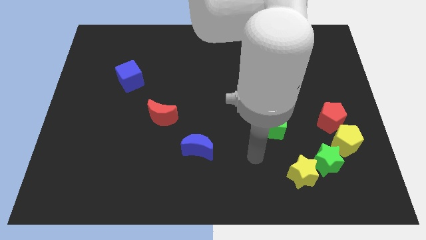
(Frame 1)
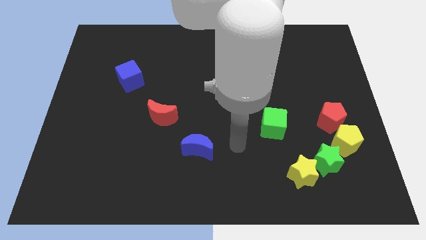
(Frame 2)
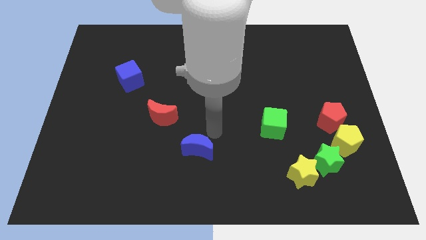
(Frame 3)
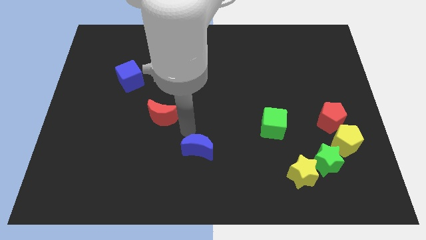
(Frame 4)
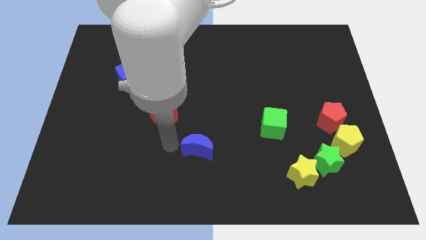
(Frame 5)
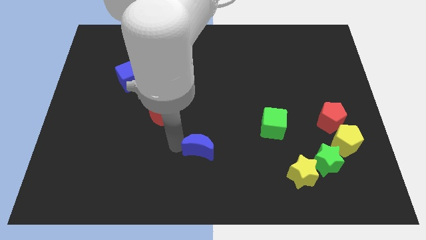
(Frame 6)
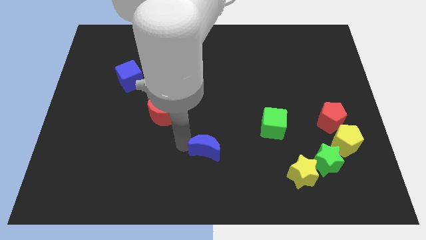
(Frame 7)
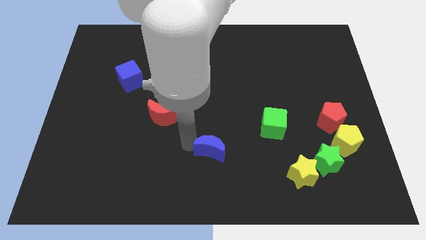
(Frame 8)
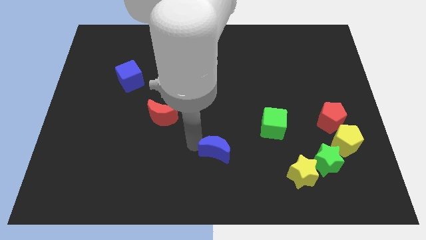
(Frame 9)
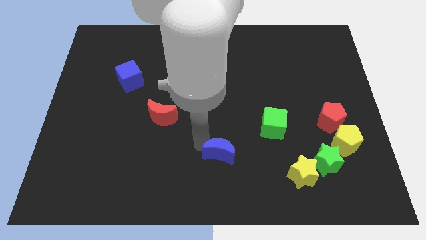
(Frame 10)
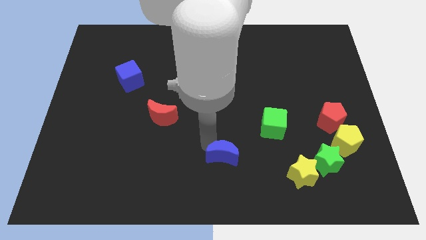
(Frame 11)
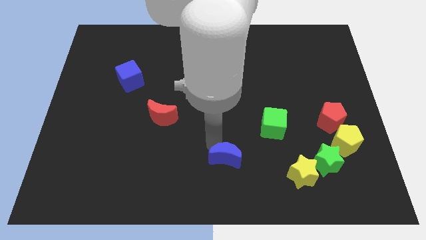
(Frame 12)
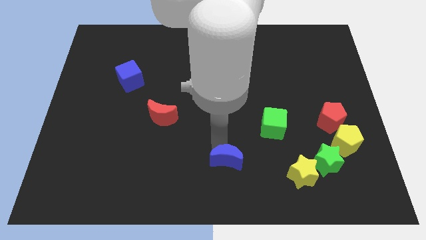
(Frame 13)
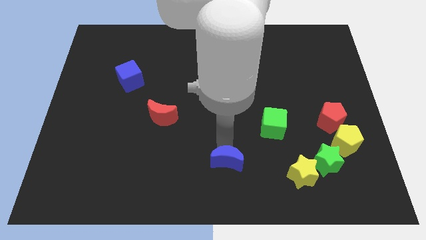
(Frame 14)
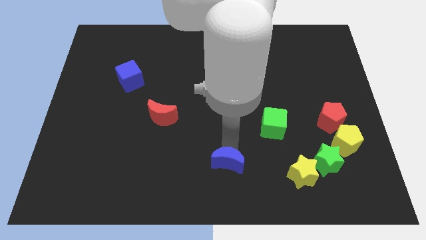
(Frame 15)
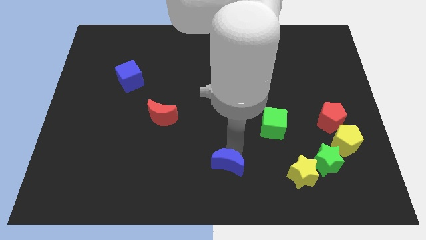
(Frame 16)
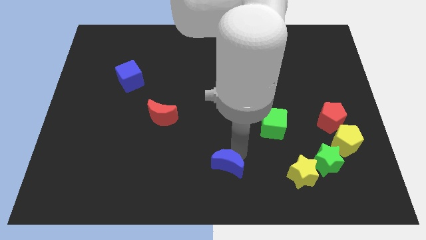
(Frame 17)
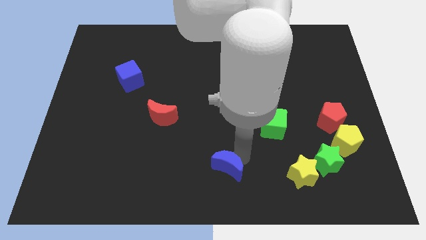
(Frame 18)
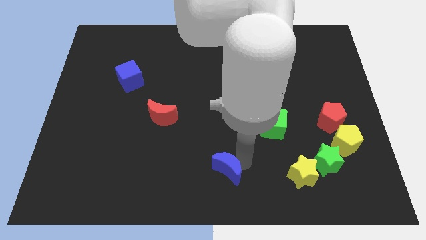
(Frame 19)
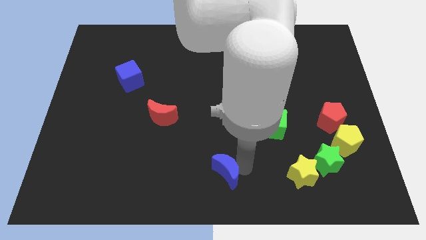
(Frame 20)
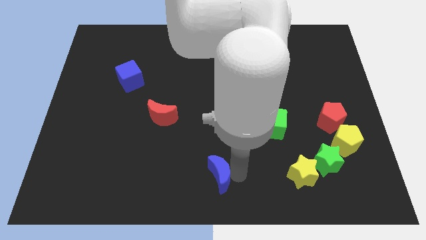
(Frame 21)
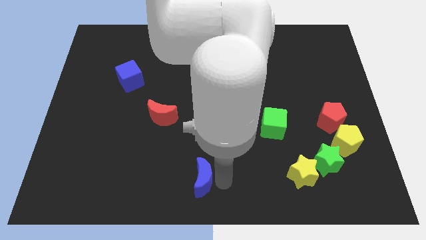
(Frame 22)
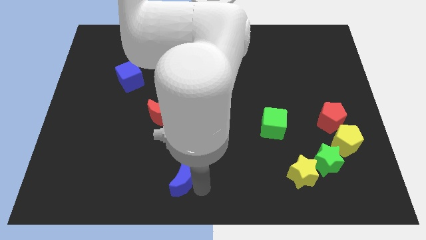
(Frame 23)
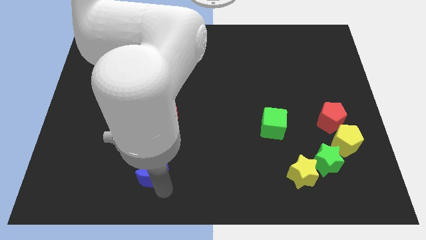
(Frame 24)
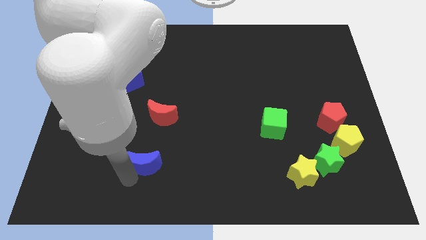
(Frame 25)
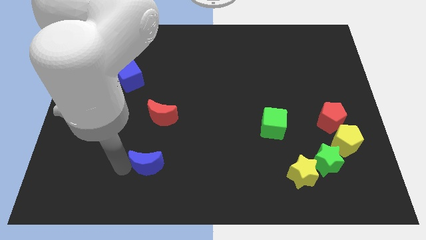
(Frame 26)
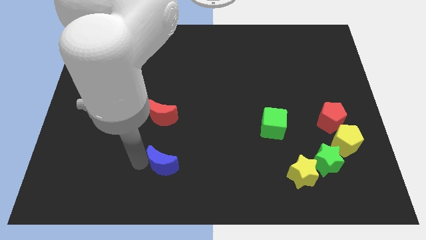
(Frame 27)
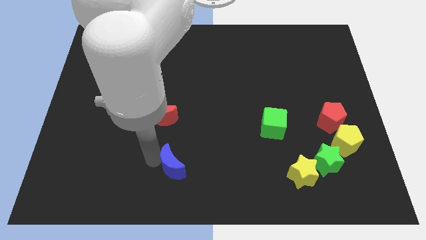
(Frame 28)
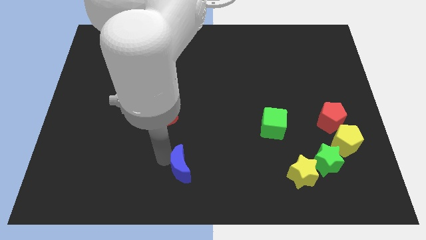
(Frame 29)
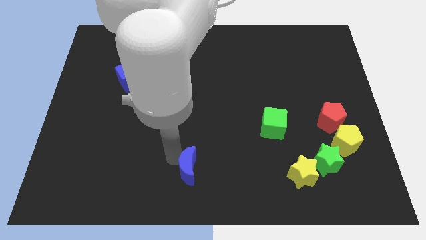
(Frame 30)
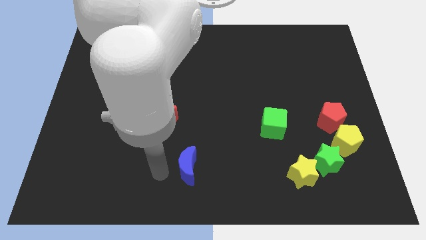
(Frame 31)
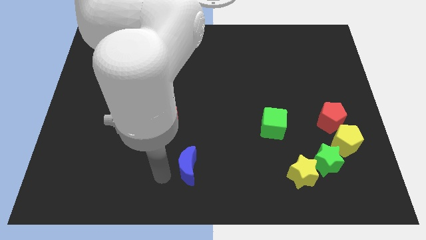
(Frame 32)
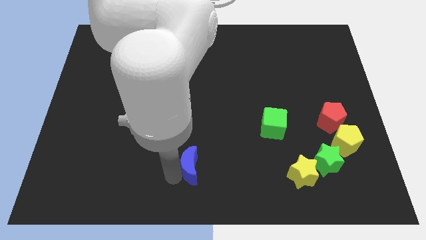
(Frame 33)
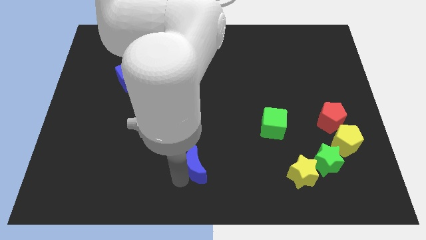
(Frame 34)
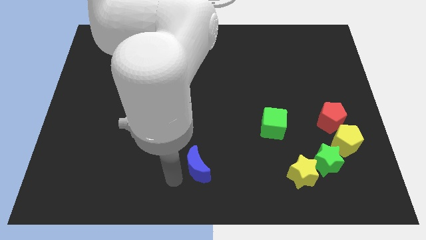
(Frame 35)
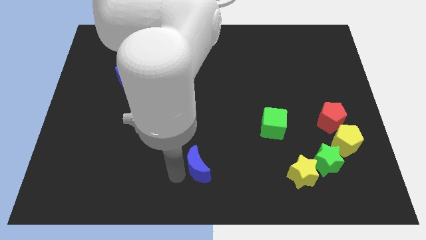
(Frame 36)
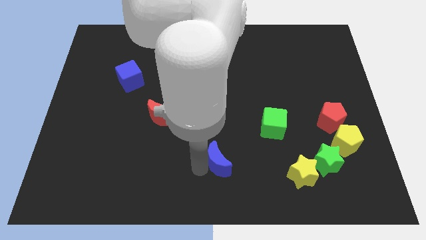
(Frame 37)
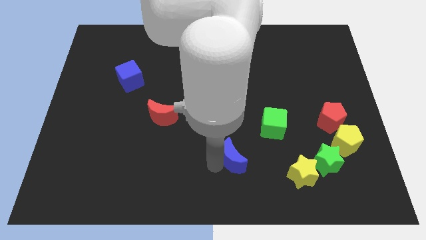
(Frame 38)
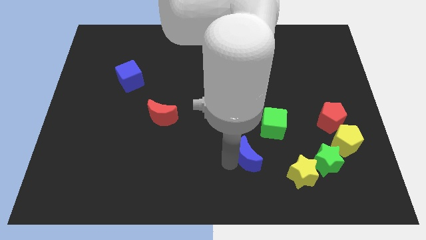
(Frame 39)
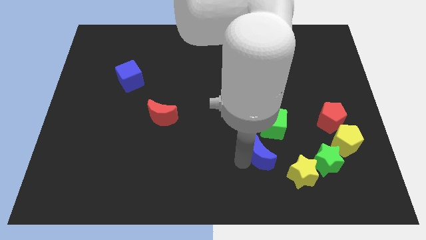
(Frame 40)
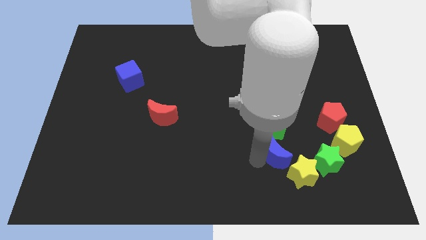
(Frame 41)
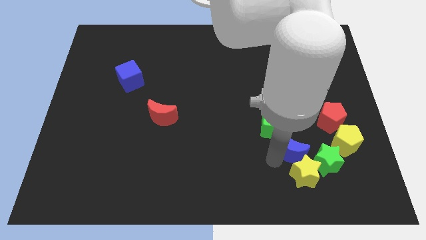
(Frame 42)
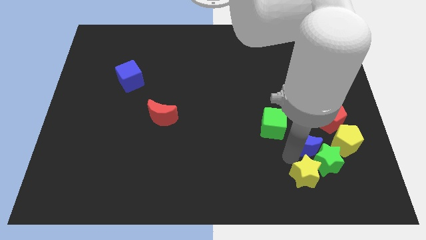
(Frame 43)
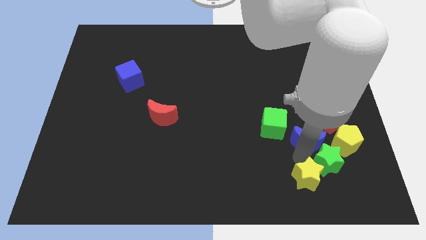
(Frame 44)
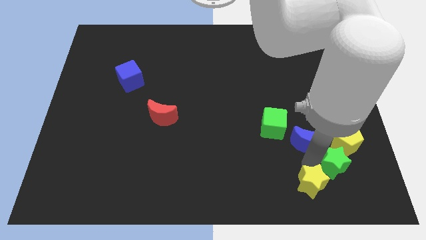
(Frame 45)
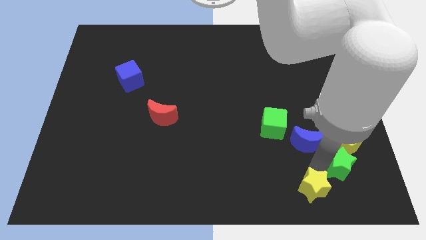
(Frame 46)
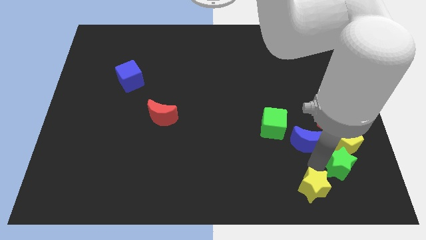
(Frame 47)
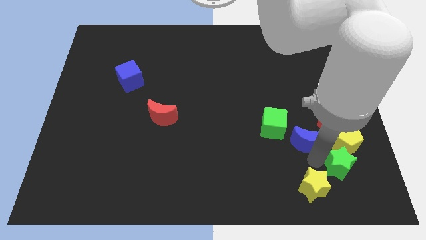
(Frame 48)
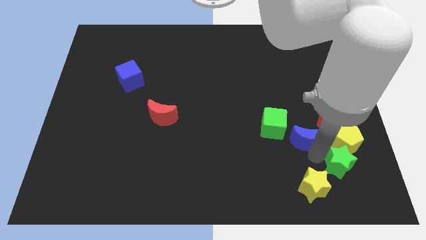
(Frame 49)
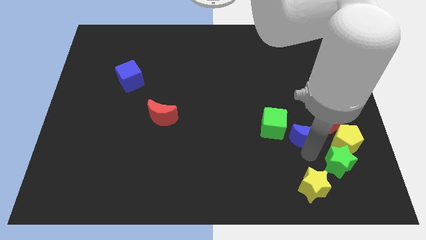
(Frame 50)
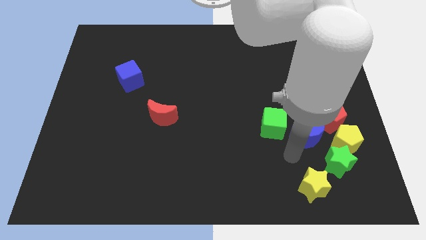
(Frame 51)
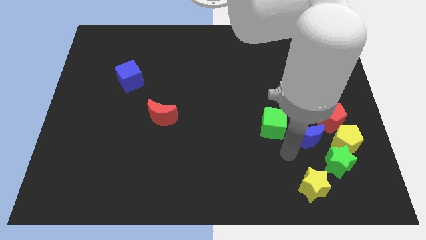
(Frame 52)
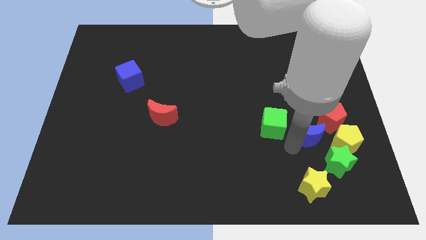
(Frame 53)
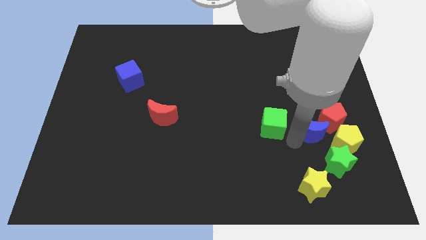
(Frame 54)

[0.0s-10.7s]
put the blue moon towards the red pentagon

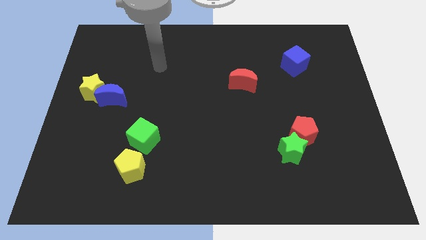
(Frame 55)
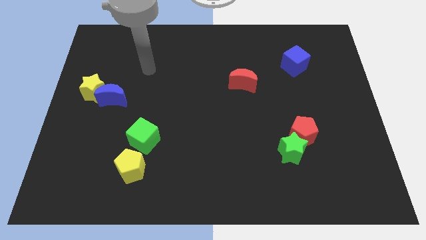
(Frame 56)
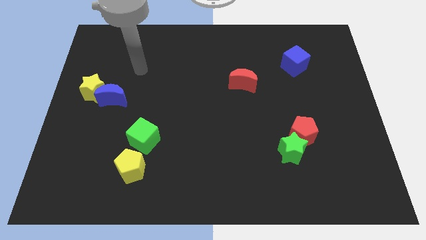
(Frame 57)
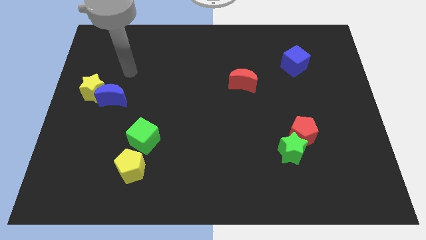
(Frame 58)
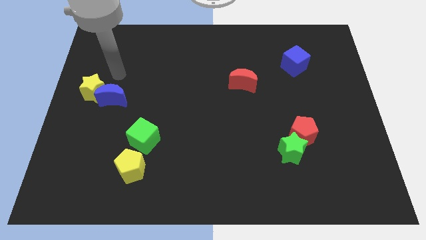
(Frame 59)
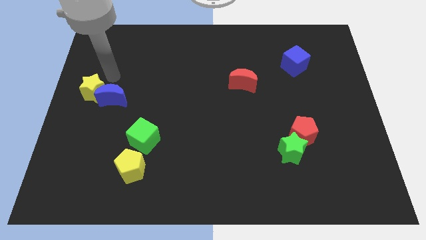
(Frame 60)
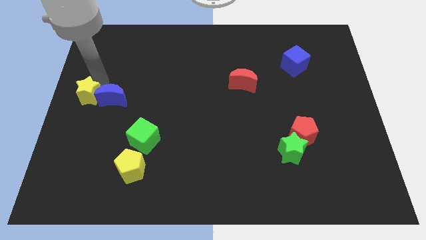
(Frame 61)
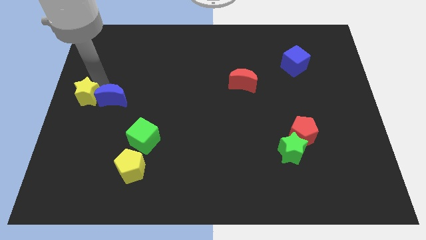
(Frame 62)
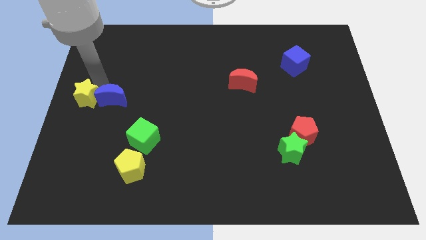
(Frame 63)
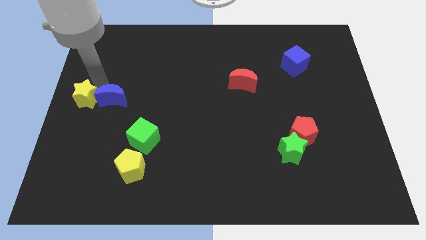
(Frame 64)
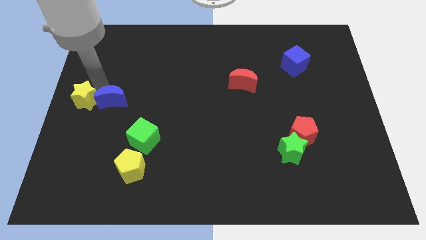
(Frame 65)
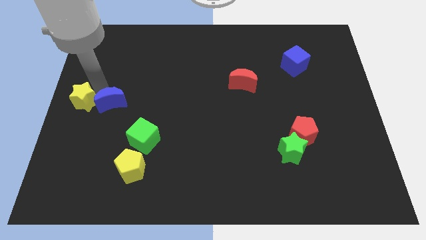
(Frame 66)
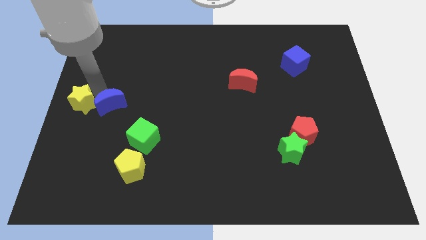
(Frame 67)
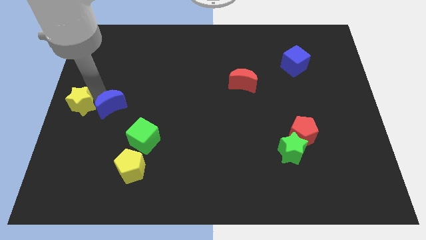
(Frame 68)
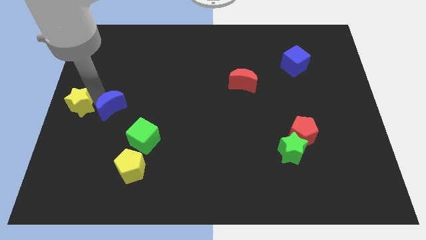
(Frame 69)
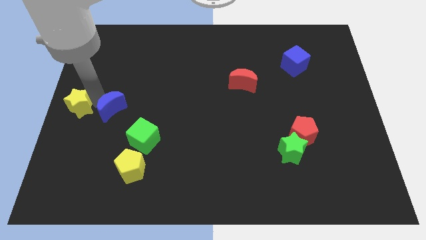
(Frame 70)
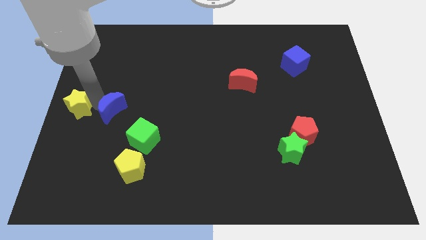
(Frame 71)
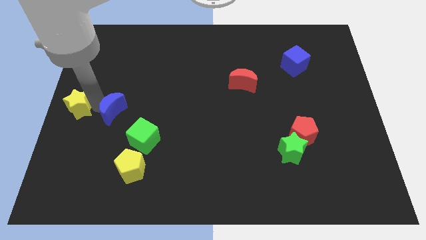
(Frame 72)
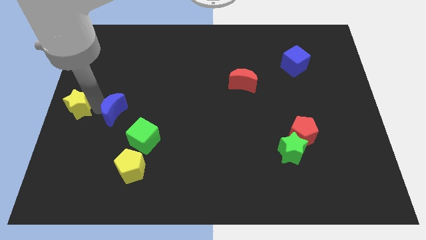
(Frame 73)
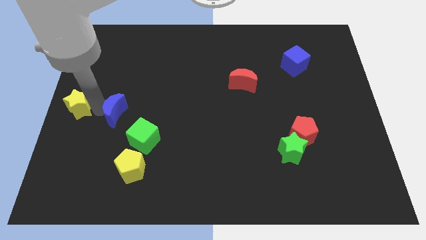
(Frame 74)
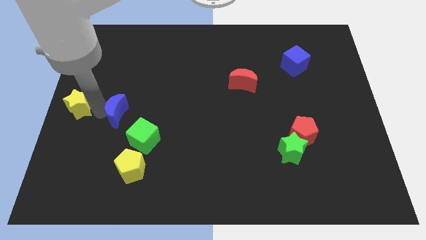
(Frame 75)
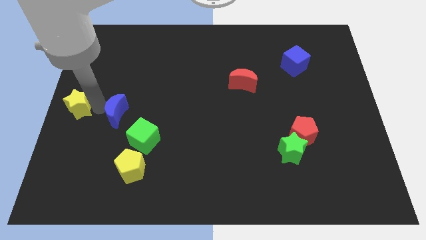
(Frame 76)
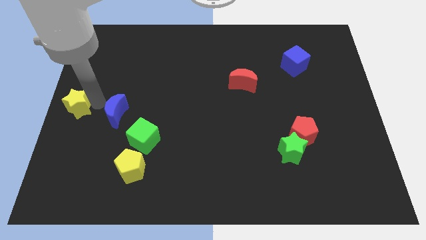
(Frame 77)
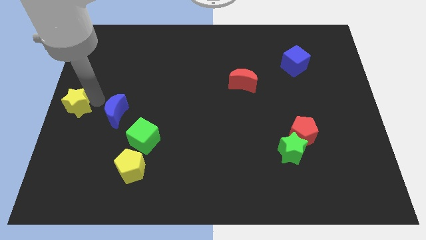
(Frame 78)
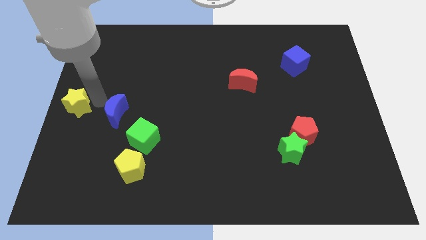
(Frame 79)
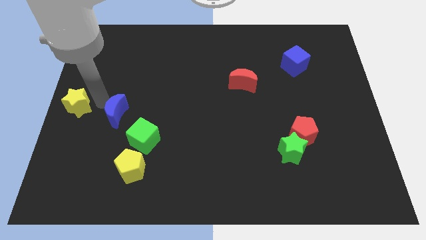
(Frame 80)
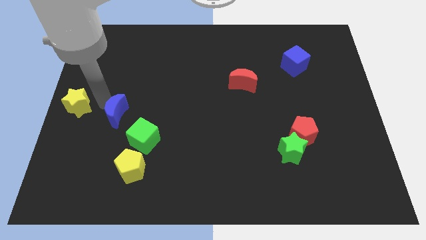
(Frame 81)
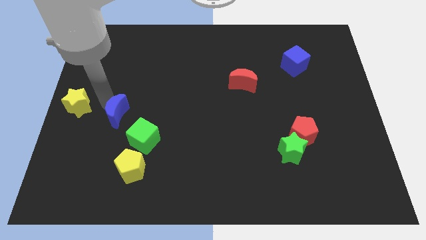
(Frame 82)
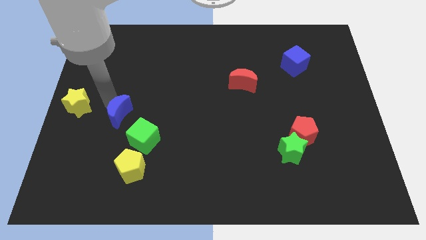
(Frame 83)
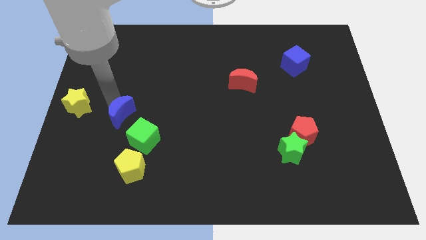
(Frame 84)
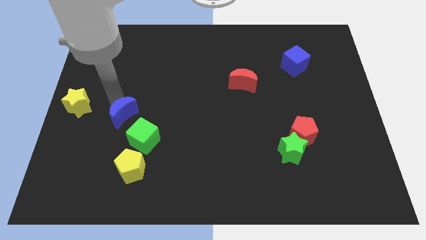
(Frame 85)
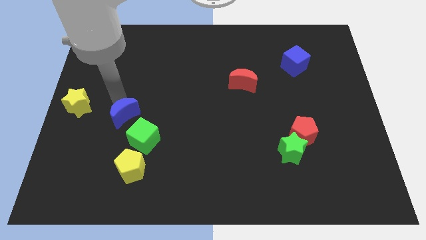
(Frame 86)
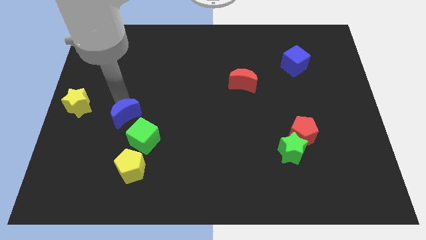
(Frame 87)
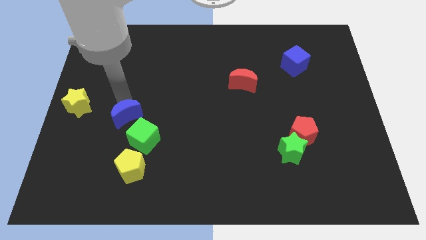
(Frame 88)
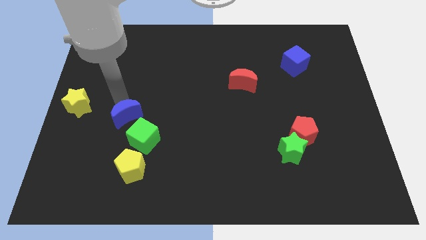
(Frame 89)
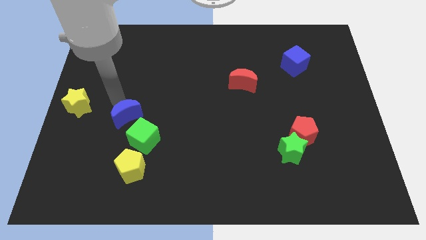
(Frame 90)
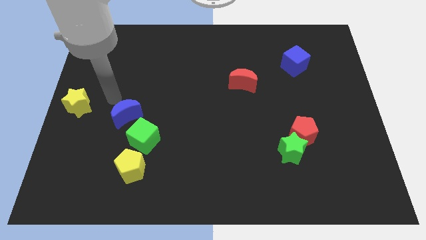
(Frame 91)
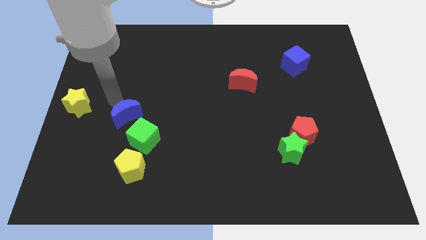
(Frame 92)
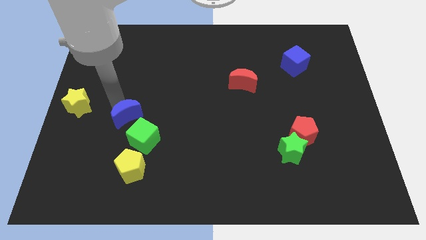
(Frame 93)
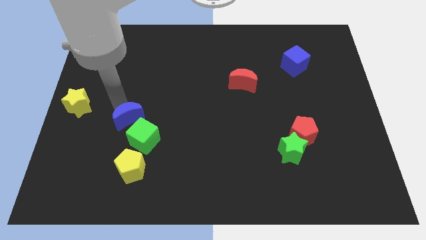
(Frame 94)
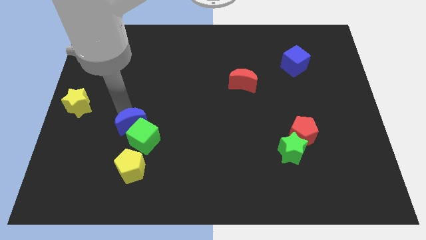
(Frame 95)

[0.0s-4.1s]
put the blue moon next to the green cube
